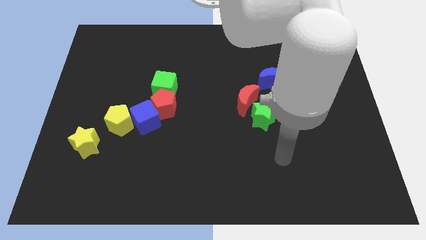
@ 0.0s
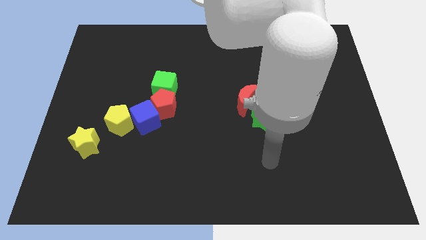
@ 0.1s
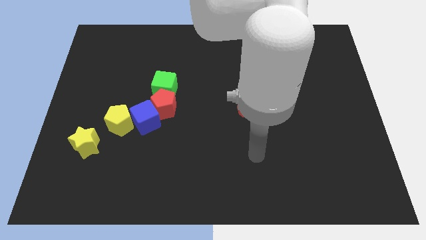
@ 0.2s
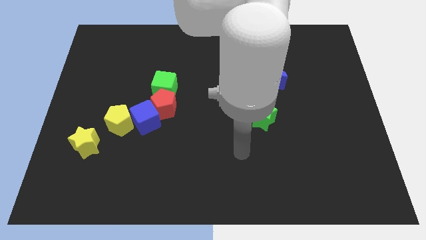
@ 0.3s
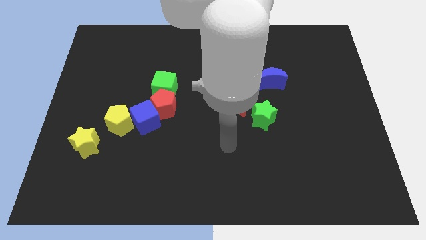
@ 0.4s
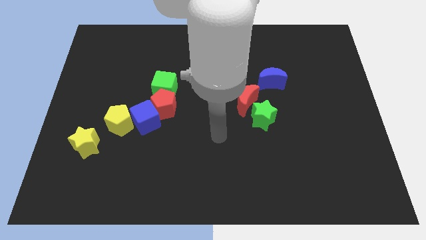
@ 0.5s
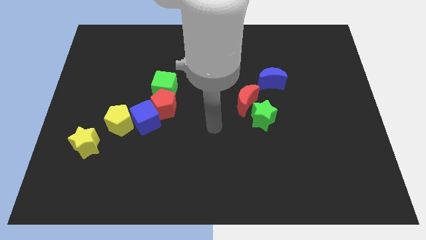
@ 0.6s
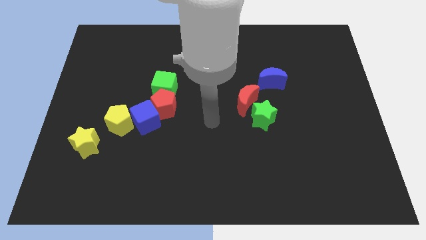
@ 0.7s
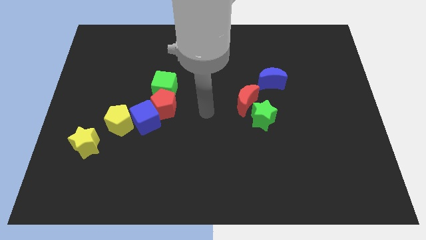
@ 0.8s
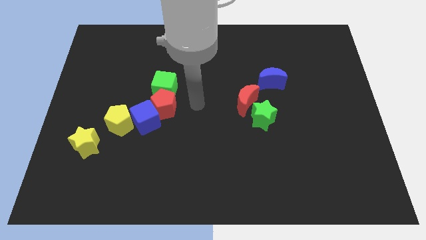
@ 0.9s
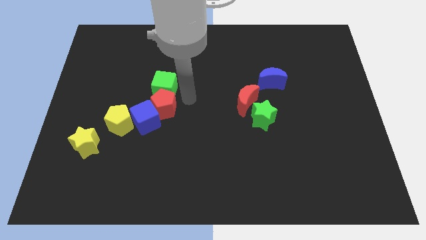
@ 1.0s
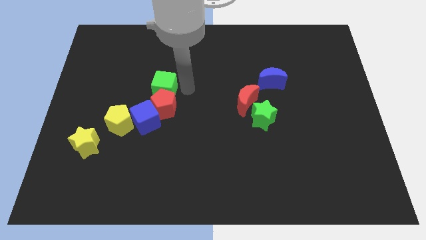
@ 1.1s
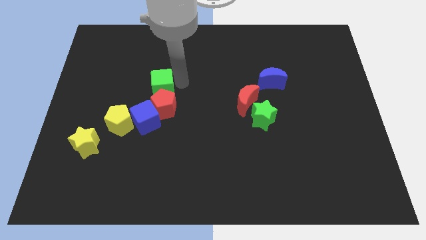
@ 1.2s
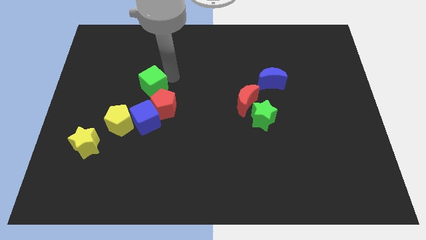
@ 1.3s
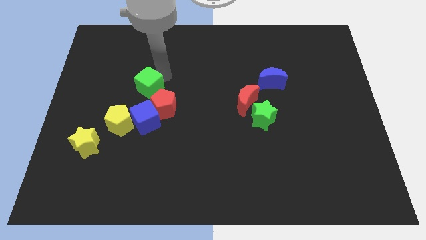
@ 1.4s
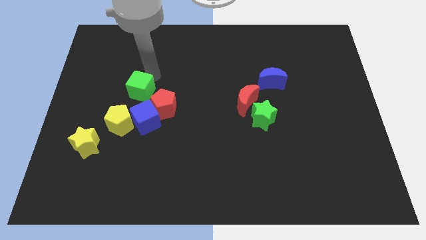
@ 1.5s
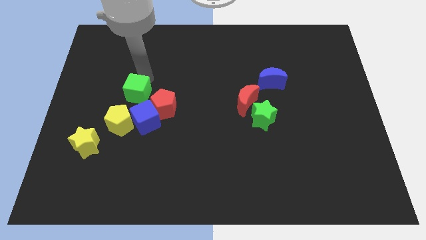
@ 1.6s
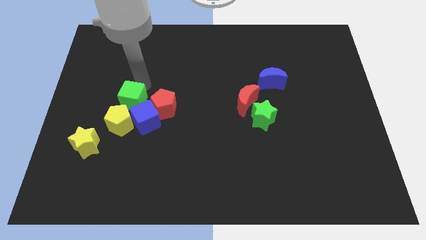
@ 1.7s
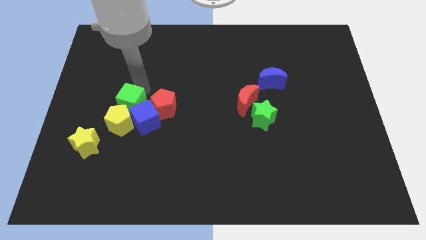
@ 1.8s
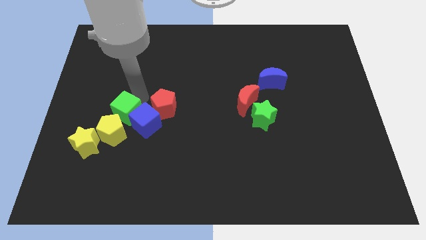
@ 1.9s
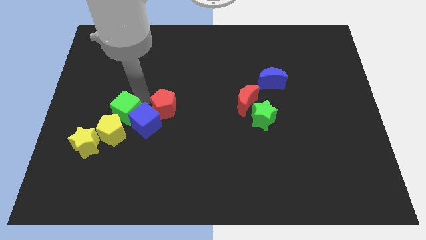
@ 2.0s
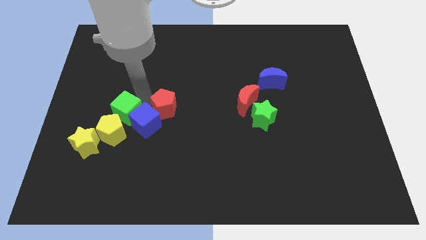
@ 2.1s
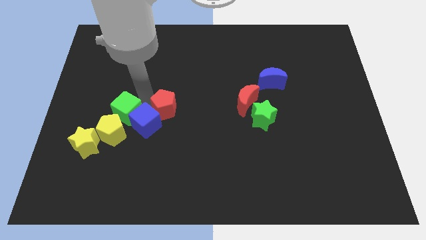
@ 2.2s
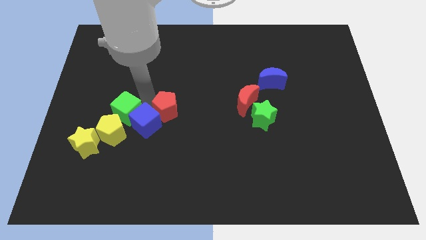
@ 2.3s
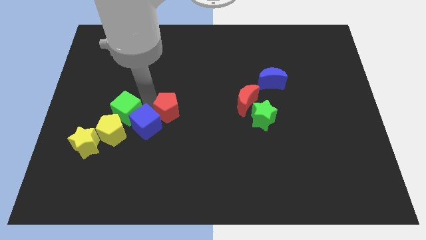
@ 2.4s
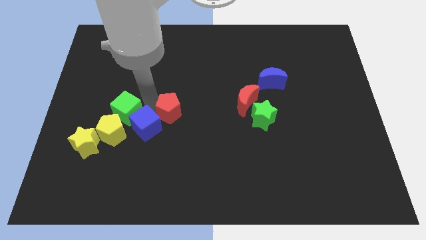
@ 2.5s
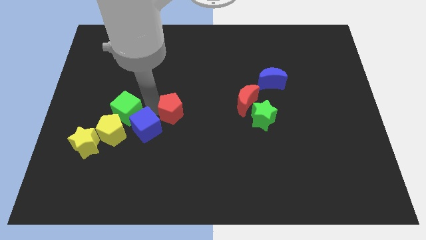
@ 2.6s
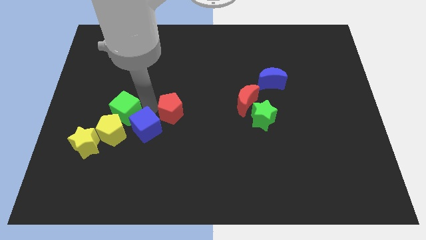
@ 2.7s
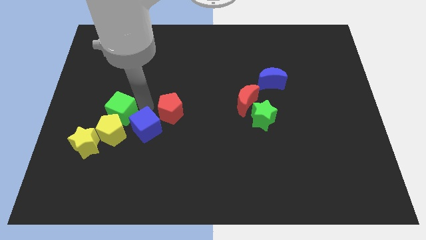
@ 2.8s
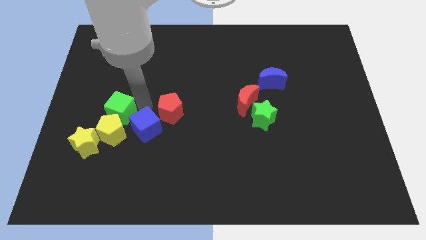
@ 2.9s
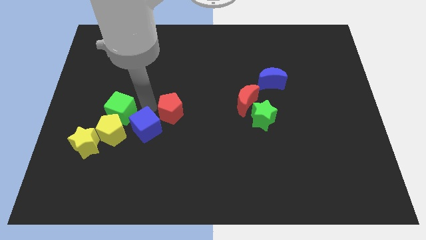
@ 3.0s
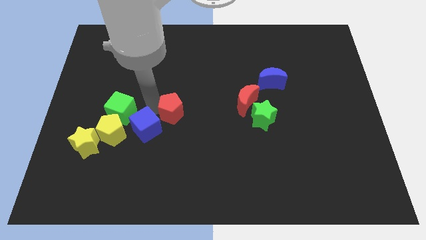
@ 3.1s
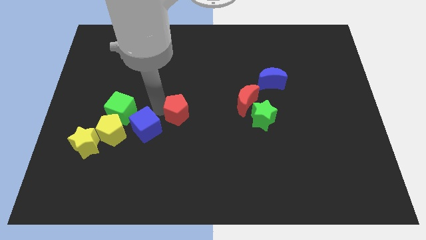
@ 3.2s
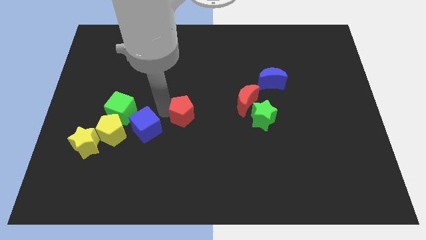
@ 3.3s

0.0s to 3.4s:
separate the red pentagon from the blue cube and green cube

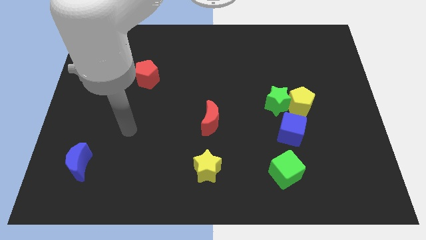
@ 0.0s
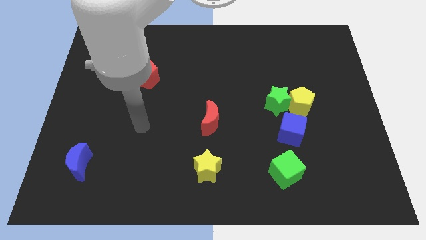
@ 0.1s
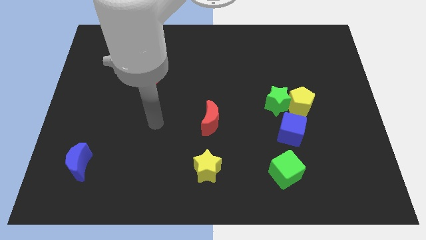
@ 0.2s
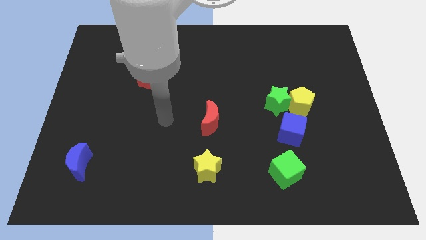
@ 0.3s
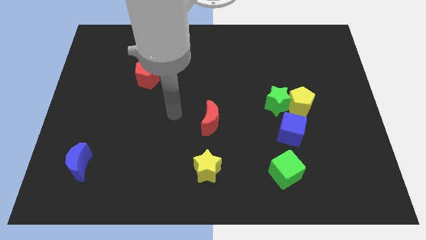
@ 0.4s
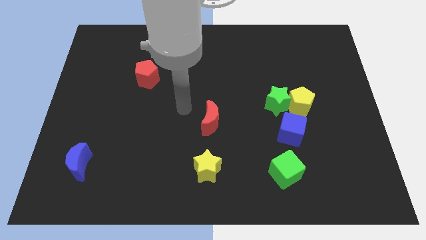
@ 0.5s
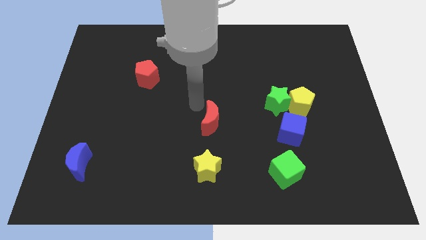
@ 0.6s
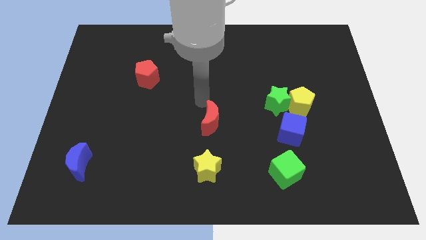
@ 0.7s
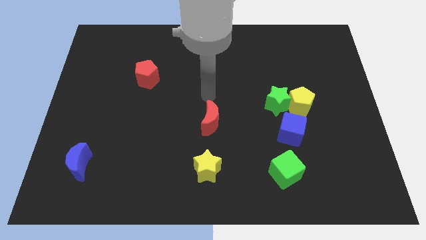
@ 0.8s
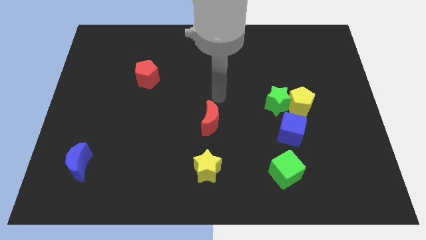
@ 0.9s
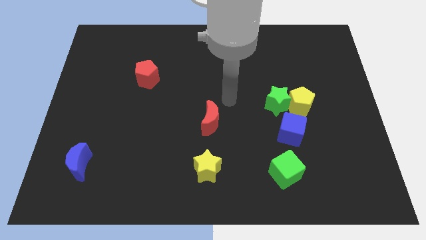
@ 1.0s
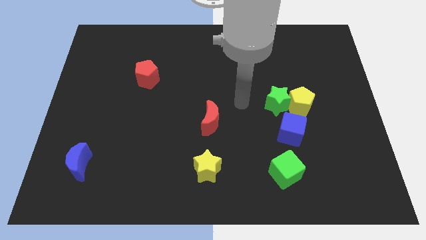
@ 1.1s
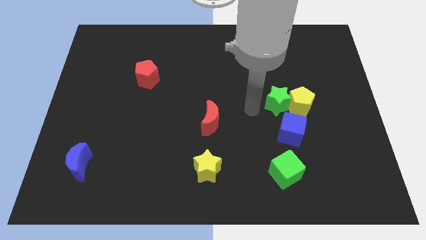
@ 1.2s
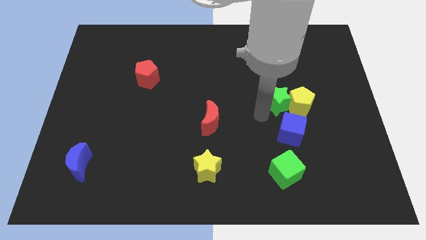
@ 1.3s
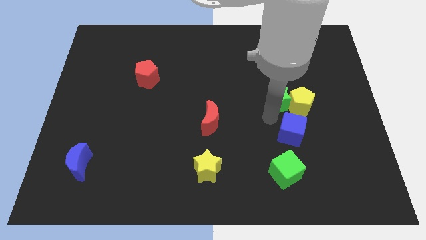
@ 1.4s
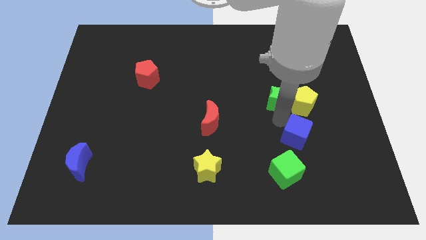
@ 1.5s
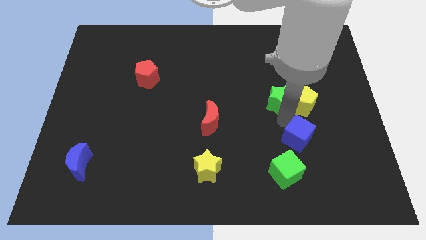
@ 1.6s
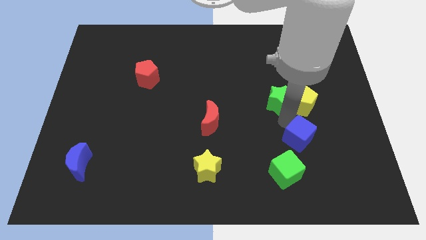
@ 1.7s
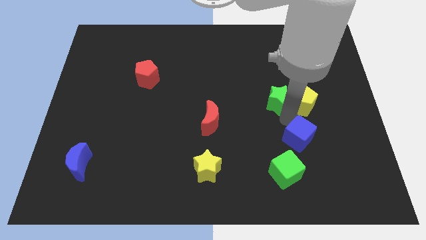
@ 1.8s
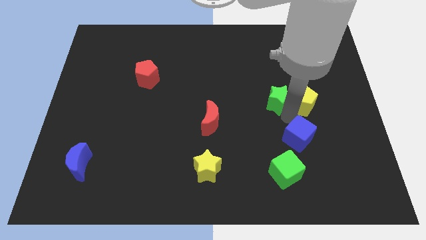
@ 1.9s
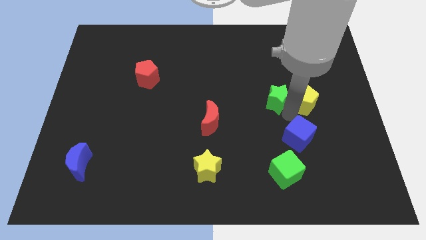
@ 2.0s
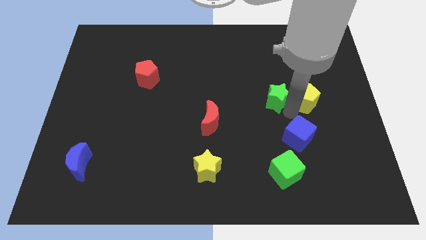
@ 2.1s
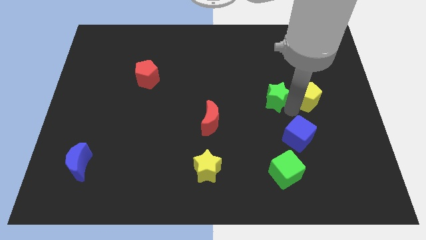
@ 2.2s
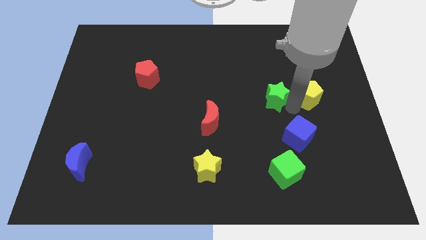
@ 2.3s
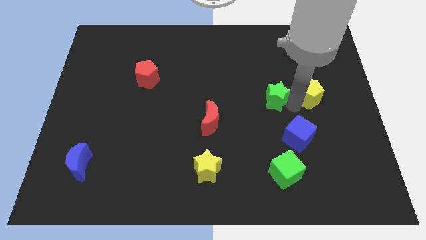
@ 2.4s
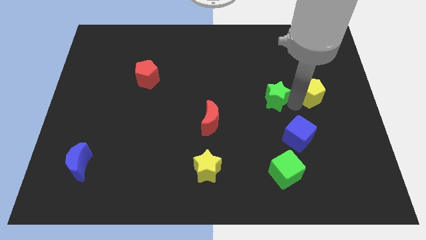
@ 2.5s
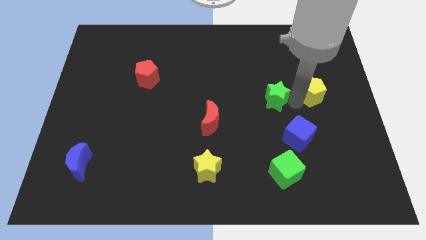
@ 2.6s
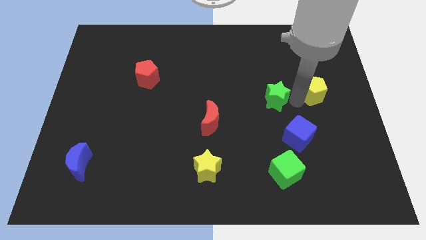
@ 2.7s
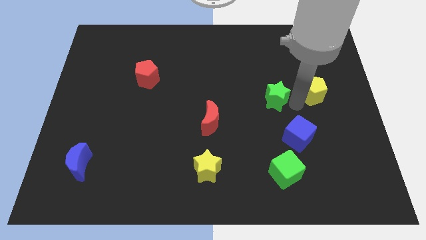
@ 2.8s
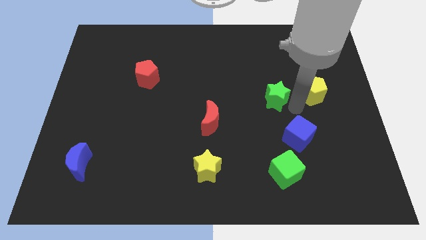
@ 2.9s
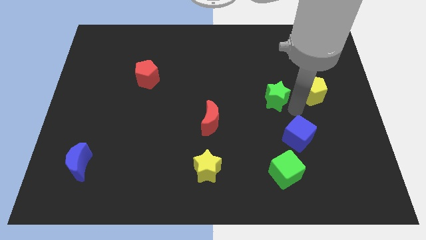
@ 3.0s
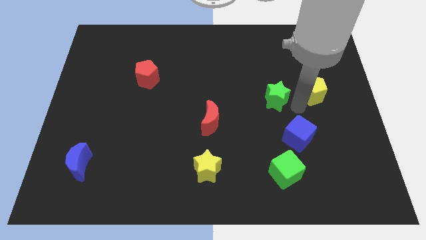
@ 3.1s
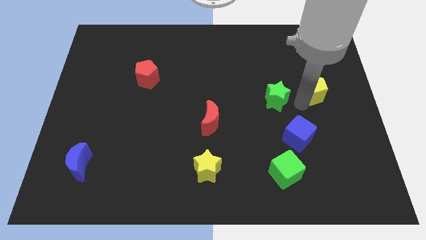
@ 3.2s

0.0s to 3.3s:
move the yellow pentagon away from the green star and blue cube

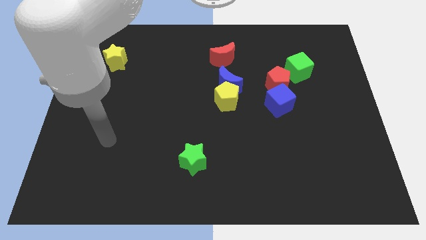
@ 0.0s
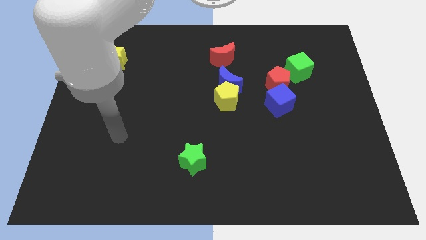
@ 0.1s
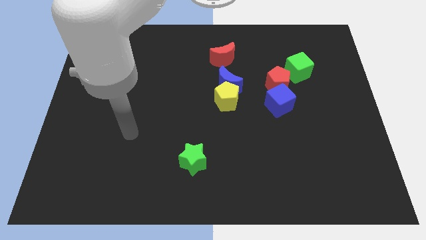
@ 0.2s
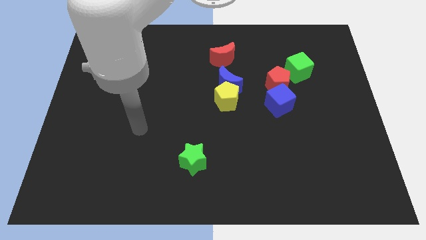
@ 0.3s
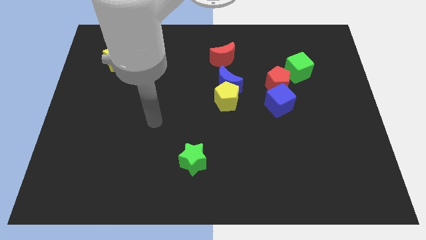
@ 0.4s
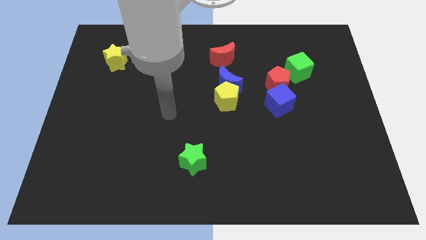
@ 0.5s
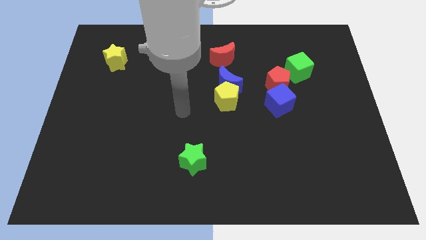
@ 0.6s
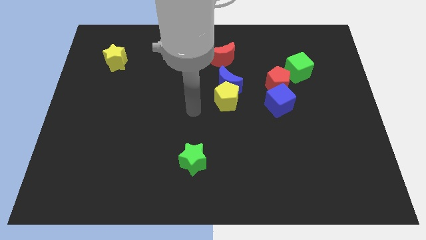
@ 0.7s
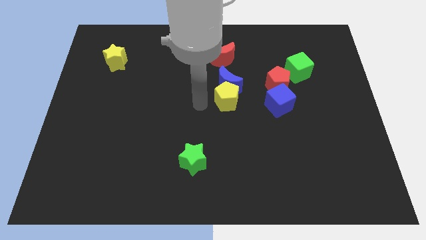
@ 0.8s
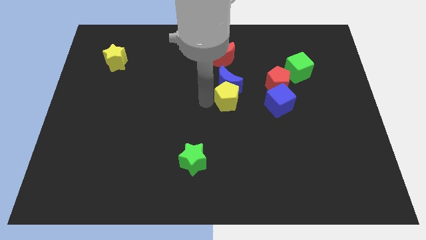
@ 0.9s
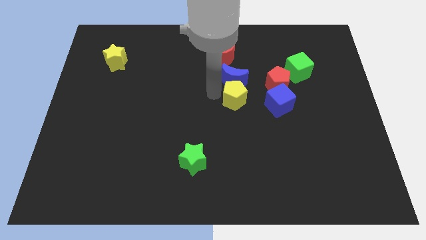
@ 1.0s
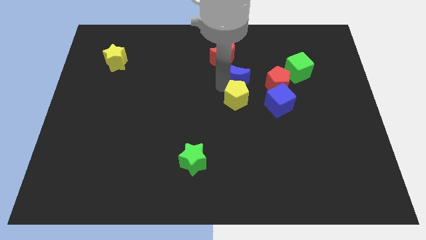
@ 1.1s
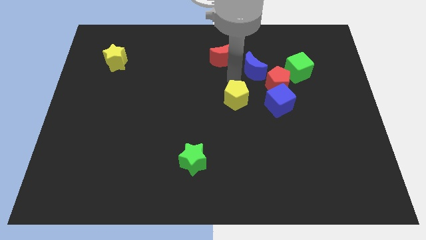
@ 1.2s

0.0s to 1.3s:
separate the yellow pentagon from the blue moon

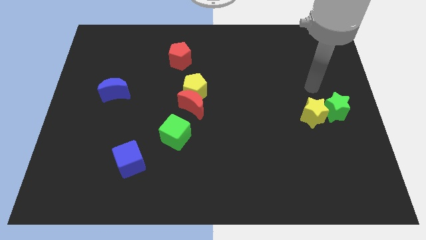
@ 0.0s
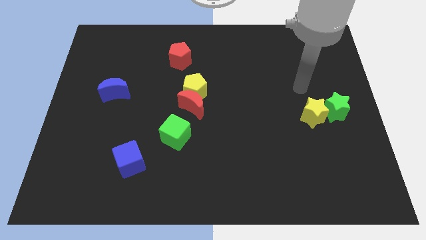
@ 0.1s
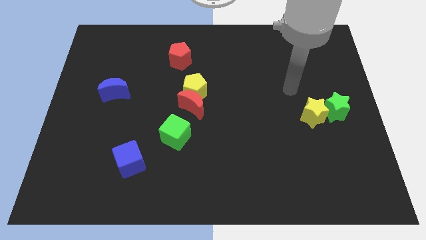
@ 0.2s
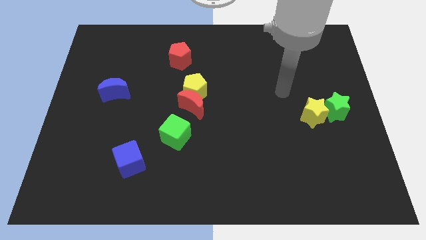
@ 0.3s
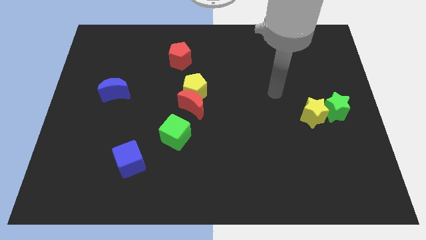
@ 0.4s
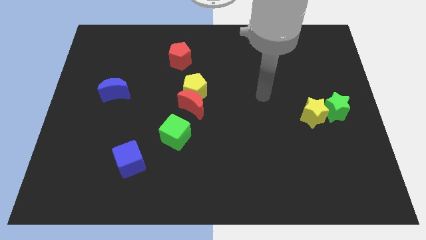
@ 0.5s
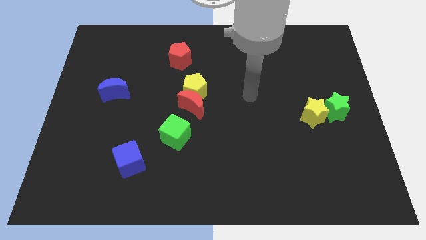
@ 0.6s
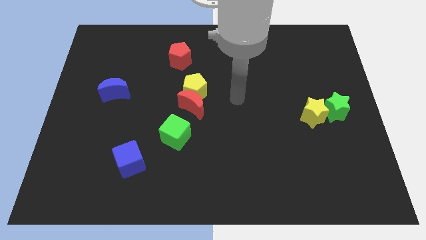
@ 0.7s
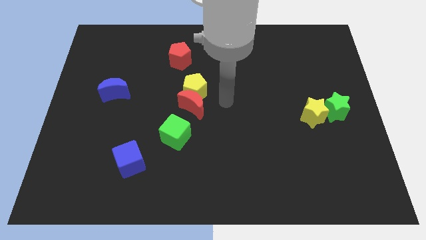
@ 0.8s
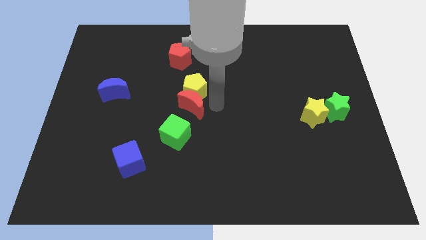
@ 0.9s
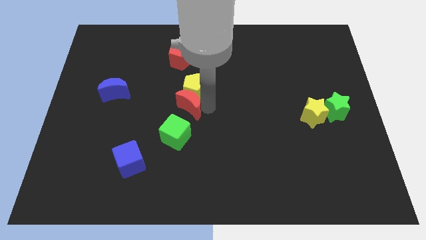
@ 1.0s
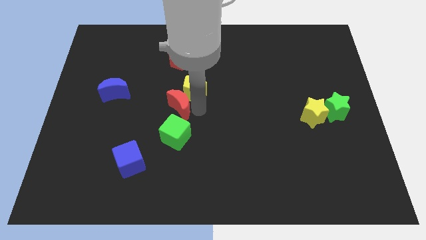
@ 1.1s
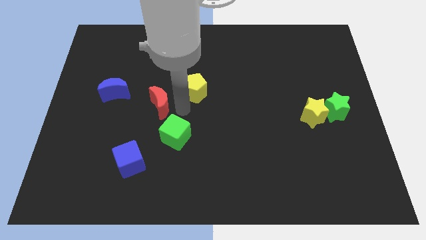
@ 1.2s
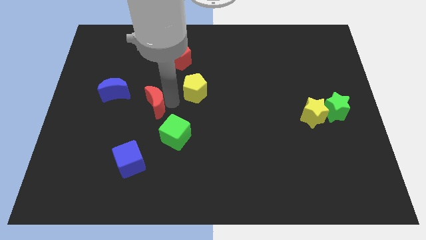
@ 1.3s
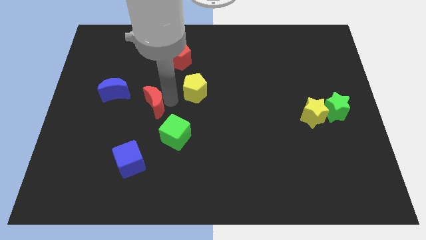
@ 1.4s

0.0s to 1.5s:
pull the yellow pentagon apart from the red moon
